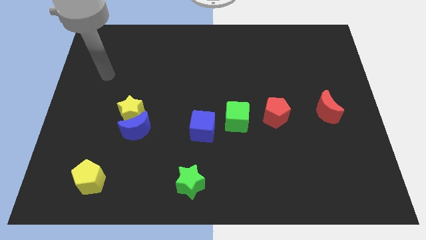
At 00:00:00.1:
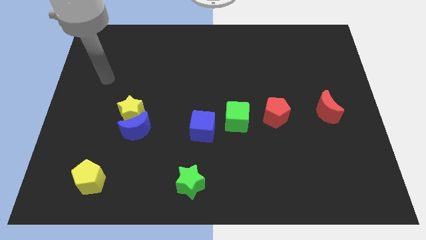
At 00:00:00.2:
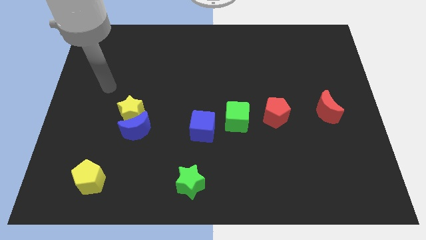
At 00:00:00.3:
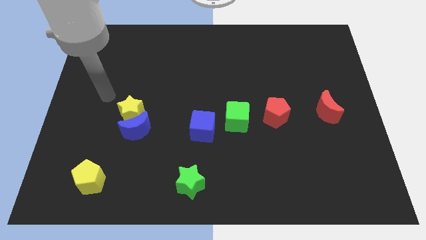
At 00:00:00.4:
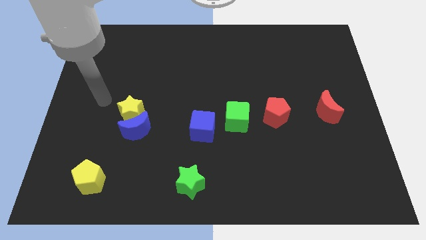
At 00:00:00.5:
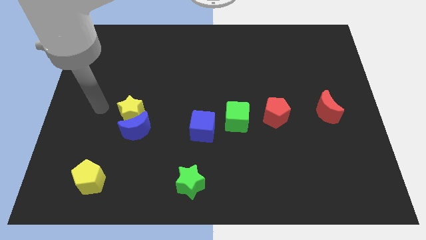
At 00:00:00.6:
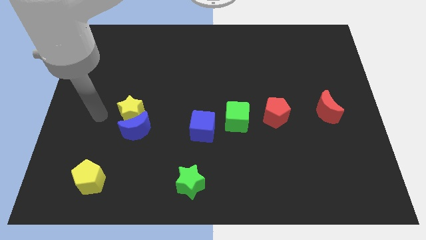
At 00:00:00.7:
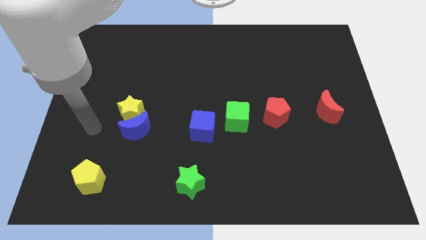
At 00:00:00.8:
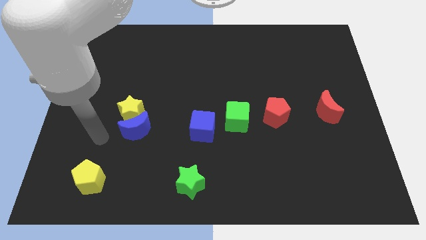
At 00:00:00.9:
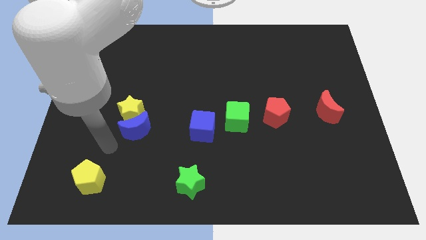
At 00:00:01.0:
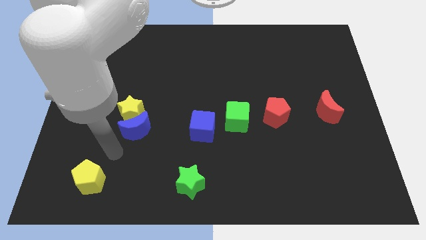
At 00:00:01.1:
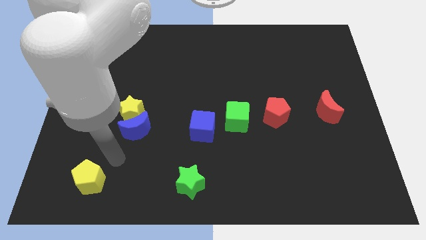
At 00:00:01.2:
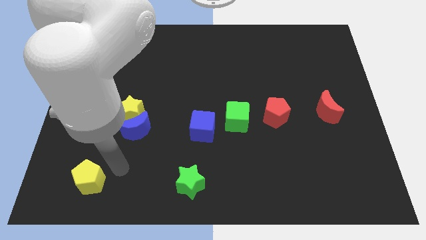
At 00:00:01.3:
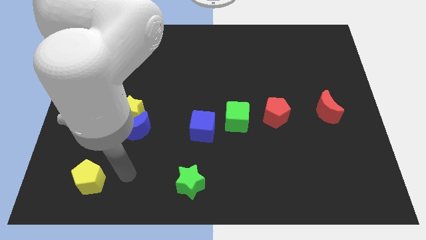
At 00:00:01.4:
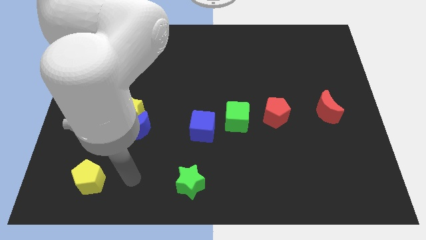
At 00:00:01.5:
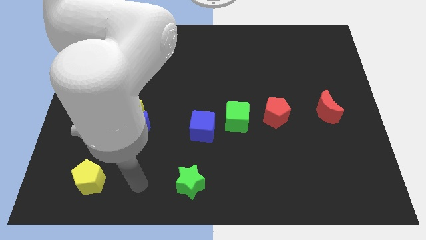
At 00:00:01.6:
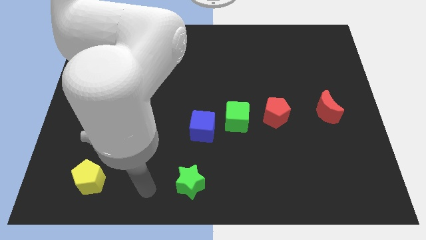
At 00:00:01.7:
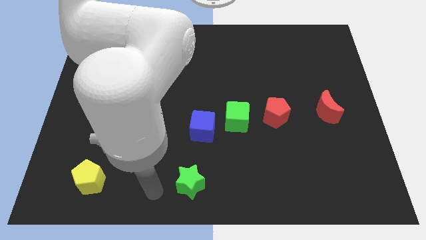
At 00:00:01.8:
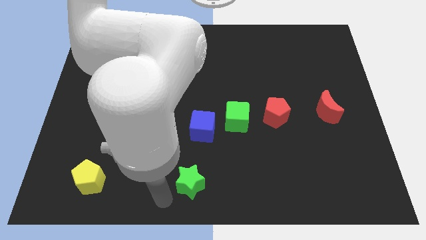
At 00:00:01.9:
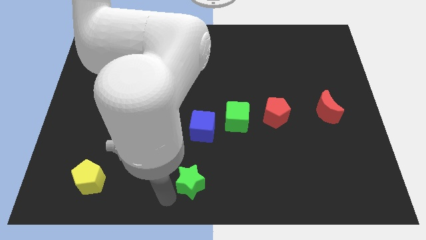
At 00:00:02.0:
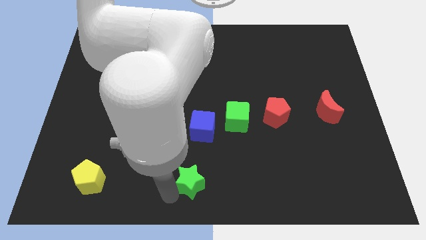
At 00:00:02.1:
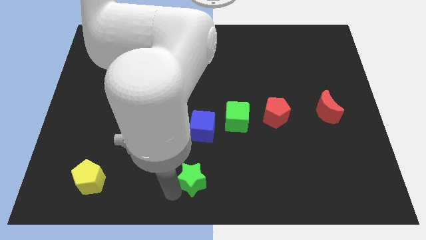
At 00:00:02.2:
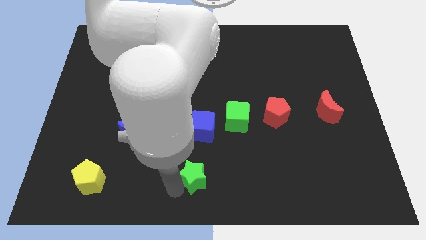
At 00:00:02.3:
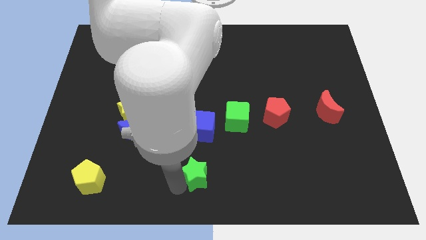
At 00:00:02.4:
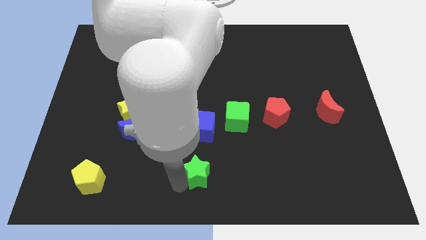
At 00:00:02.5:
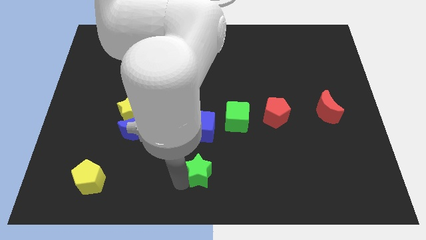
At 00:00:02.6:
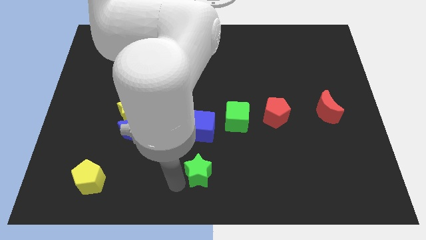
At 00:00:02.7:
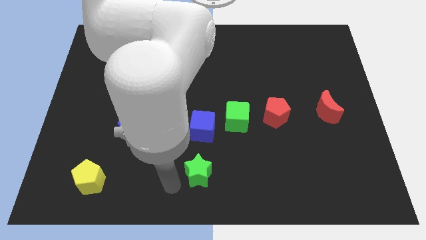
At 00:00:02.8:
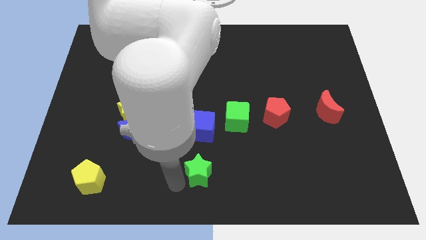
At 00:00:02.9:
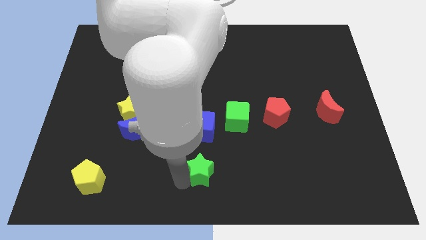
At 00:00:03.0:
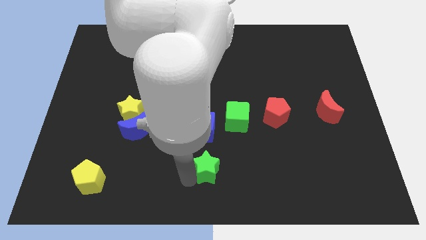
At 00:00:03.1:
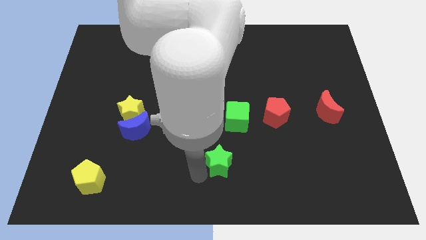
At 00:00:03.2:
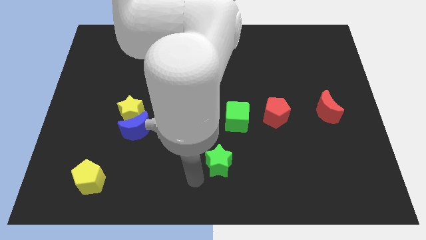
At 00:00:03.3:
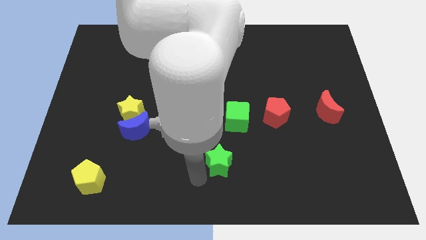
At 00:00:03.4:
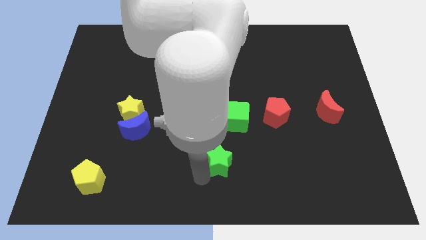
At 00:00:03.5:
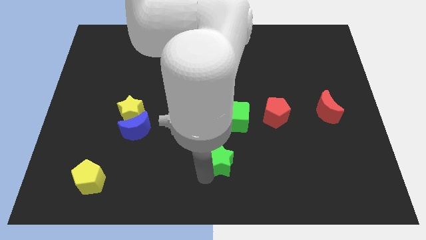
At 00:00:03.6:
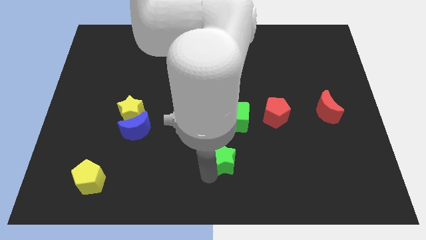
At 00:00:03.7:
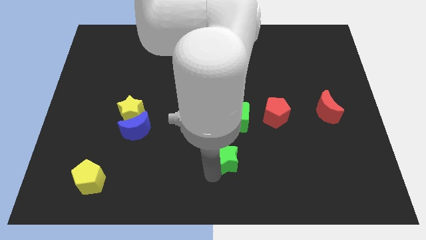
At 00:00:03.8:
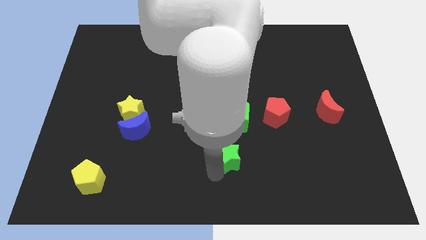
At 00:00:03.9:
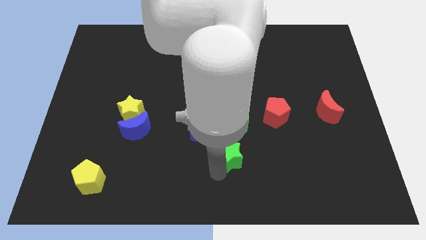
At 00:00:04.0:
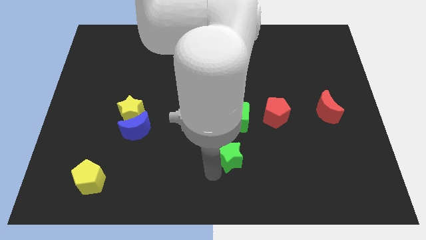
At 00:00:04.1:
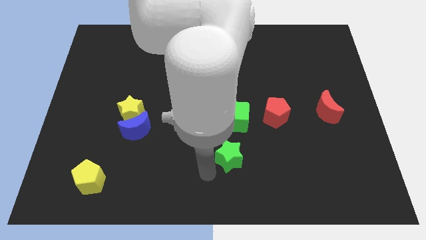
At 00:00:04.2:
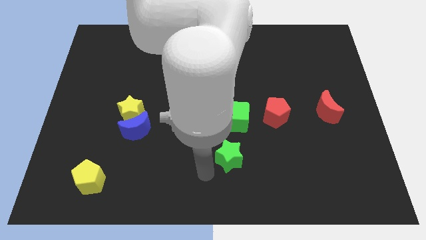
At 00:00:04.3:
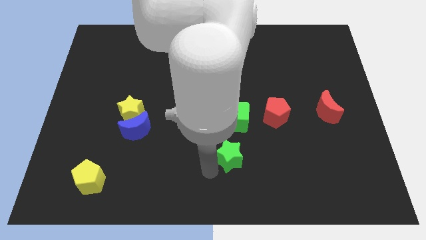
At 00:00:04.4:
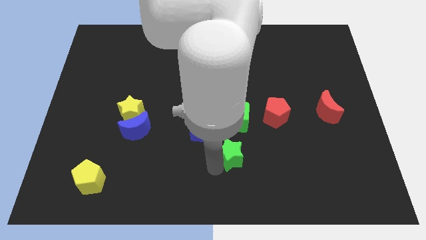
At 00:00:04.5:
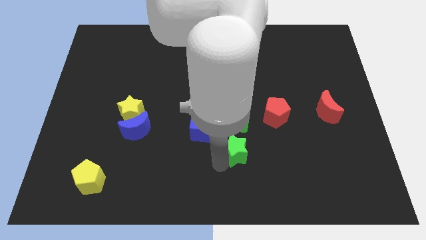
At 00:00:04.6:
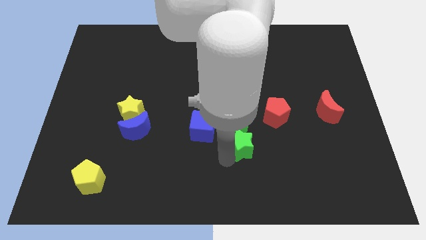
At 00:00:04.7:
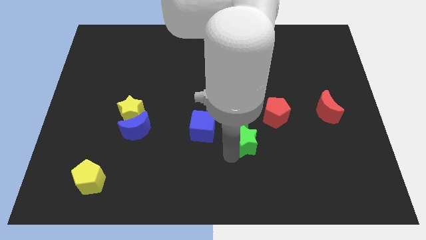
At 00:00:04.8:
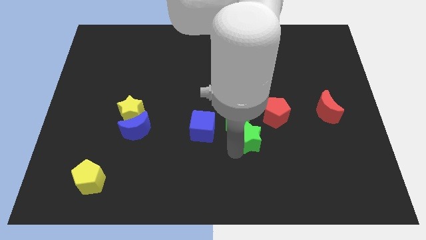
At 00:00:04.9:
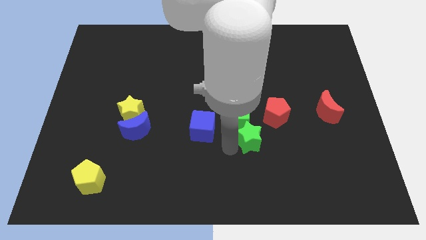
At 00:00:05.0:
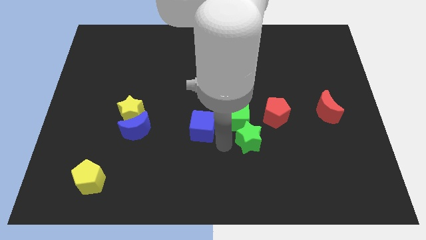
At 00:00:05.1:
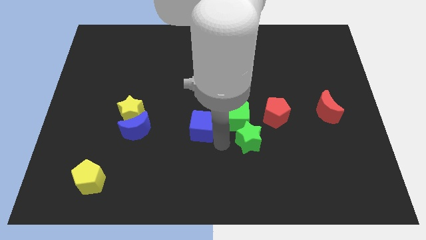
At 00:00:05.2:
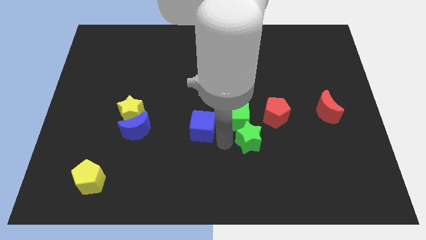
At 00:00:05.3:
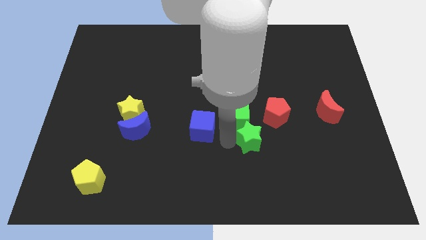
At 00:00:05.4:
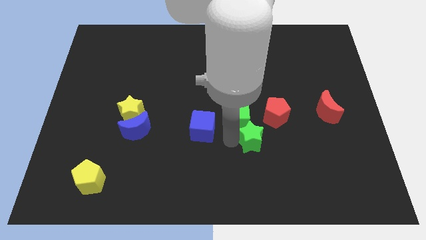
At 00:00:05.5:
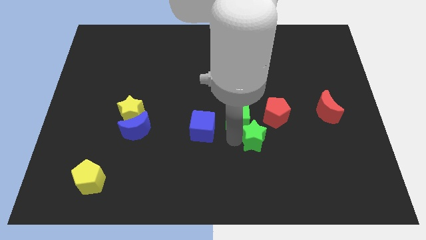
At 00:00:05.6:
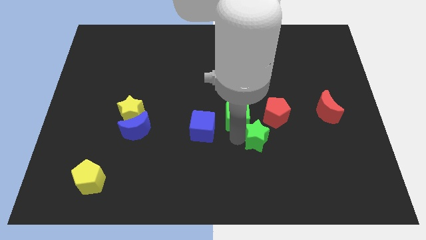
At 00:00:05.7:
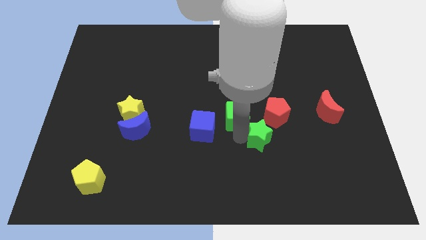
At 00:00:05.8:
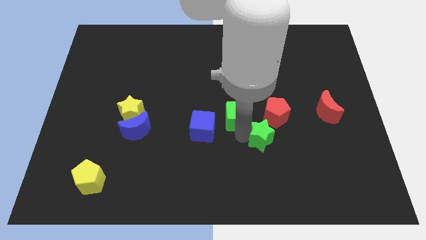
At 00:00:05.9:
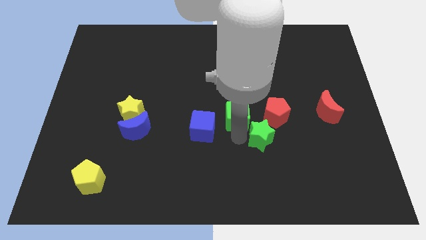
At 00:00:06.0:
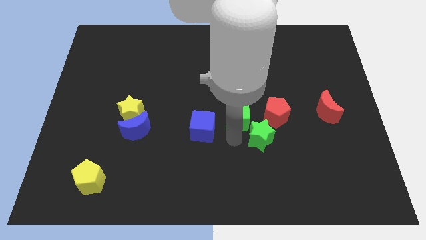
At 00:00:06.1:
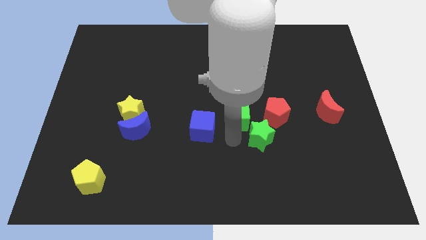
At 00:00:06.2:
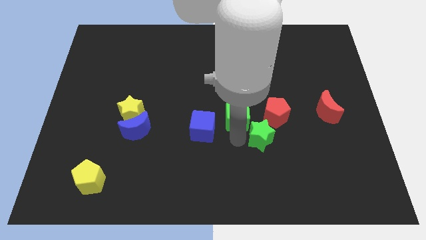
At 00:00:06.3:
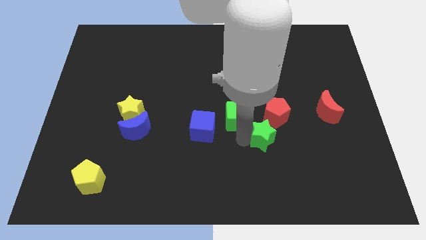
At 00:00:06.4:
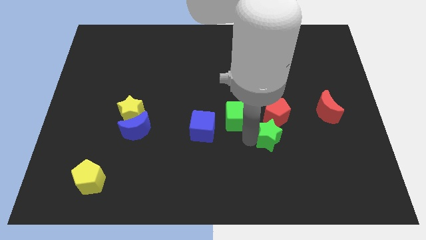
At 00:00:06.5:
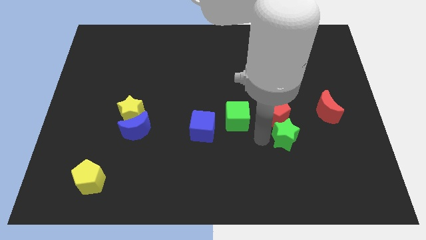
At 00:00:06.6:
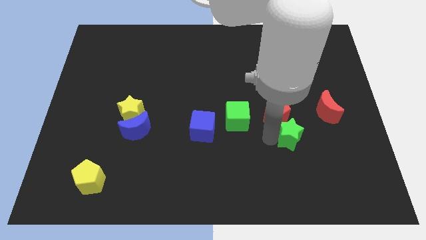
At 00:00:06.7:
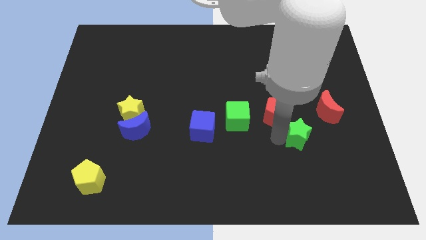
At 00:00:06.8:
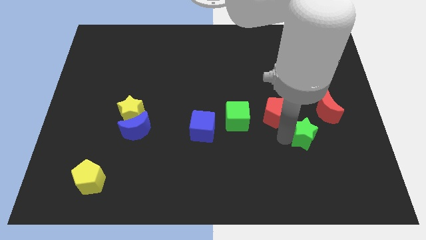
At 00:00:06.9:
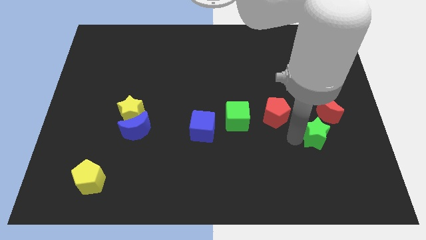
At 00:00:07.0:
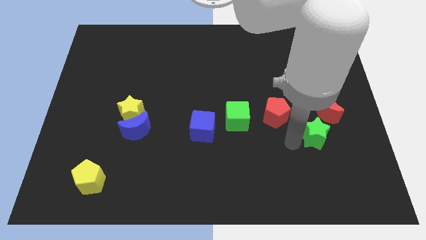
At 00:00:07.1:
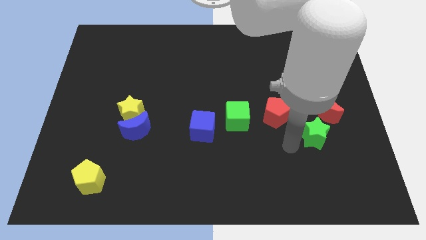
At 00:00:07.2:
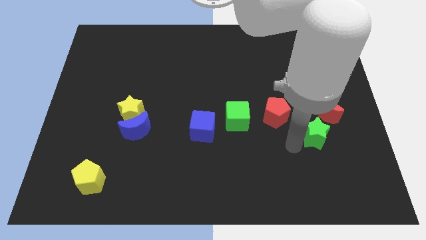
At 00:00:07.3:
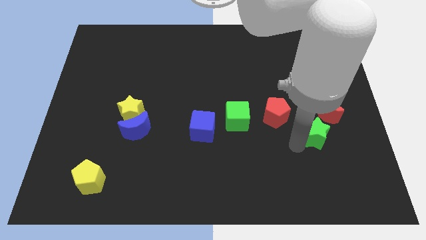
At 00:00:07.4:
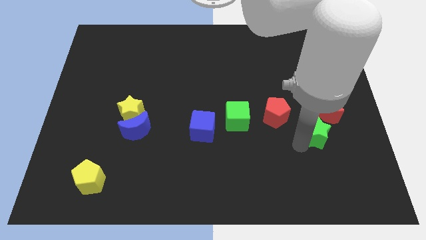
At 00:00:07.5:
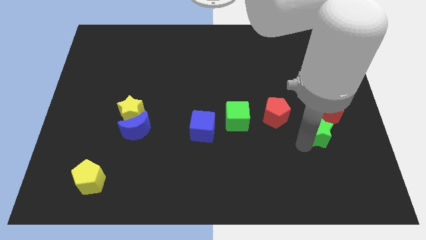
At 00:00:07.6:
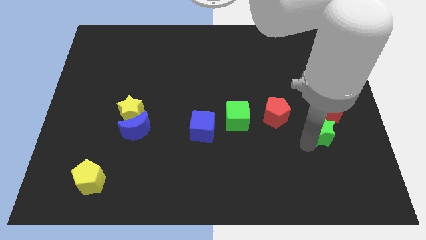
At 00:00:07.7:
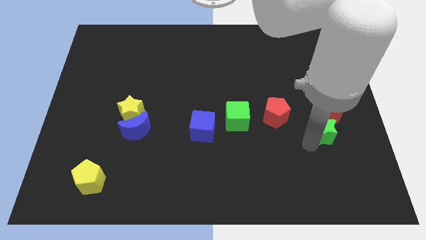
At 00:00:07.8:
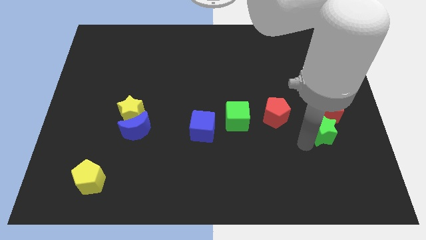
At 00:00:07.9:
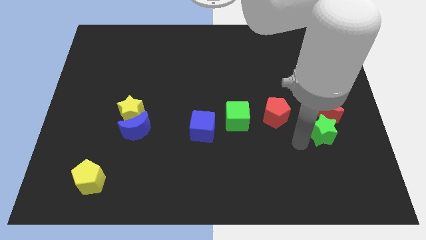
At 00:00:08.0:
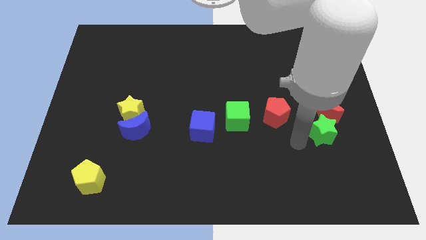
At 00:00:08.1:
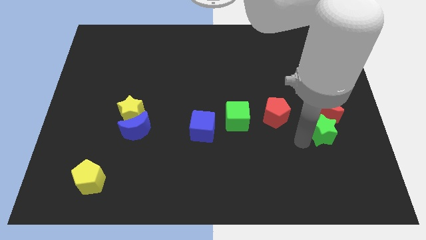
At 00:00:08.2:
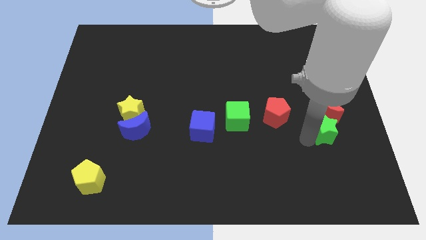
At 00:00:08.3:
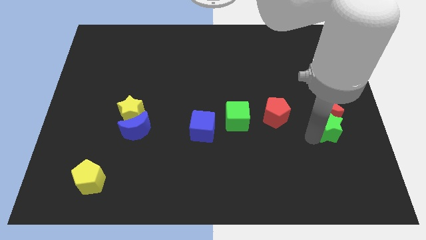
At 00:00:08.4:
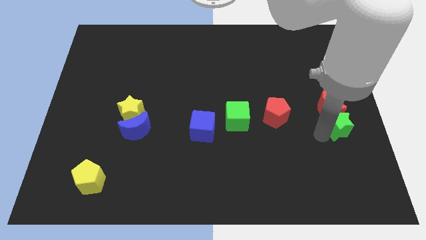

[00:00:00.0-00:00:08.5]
put the green star to the right side
